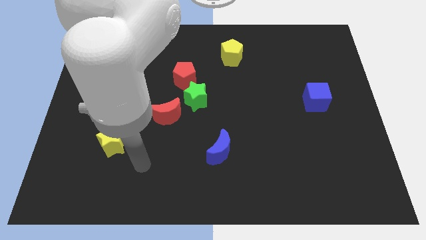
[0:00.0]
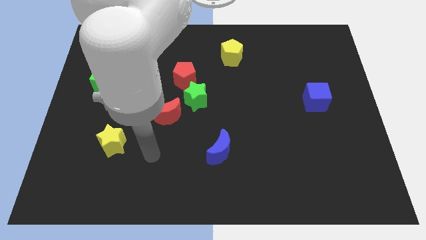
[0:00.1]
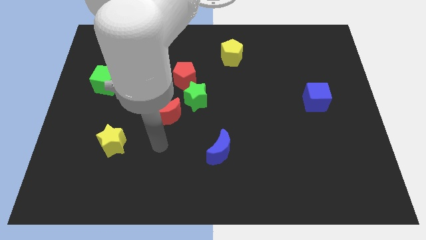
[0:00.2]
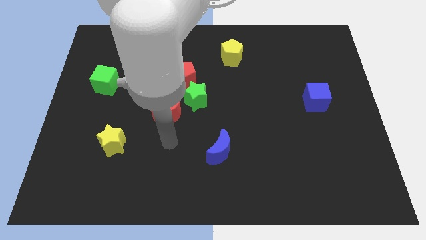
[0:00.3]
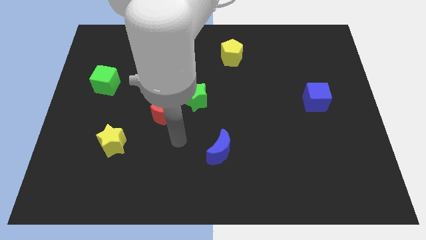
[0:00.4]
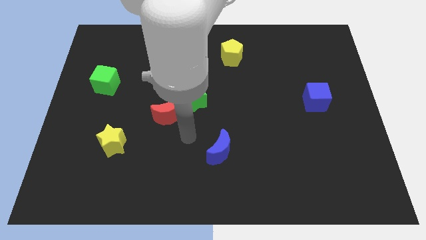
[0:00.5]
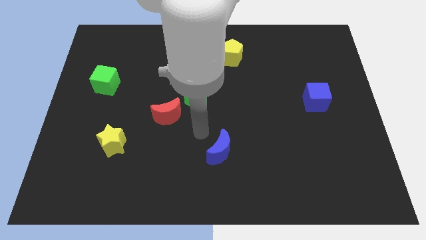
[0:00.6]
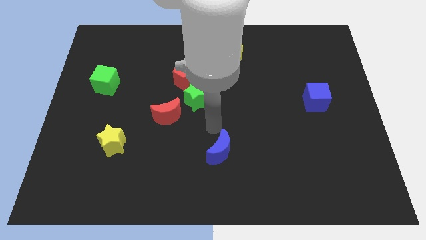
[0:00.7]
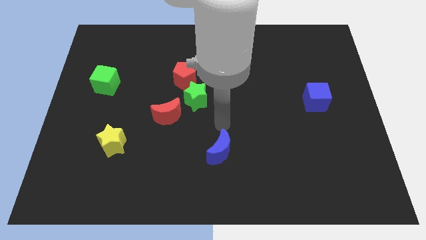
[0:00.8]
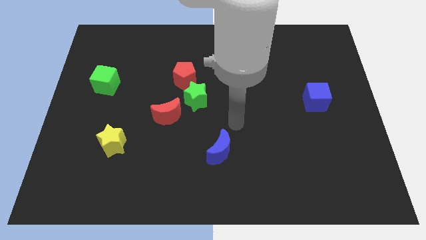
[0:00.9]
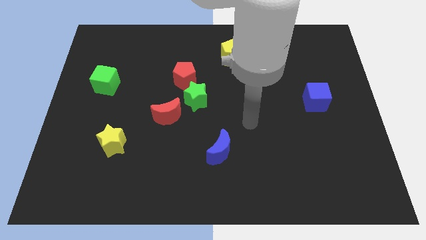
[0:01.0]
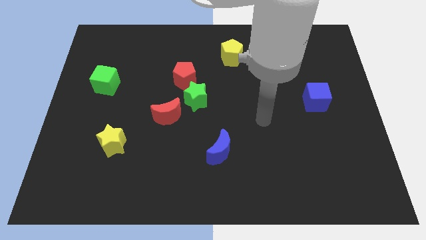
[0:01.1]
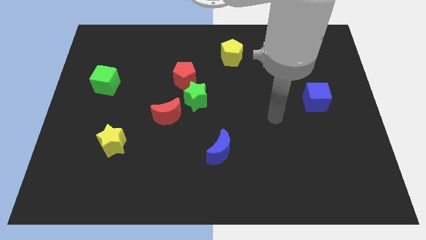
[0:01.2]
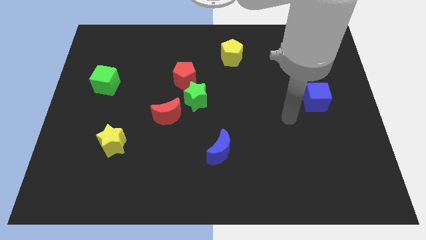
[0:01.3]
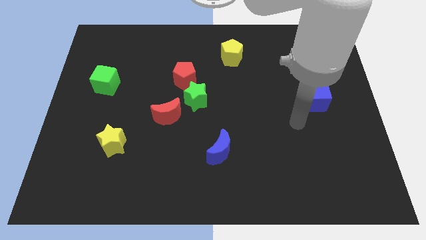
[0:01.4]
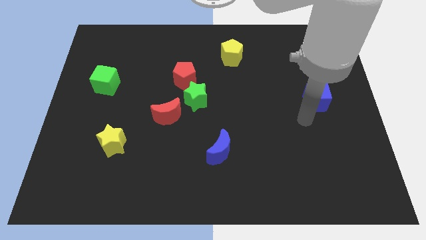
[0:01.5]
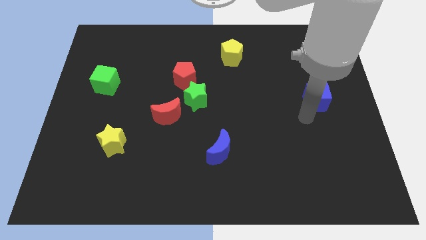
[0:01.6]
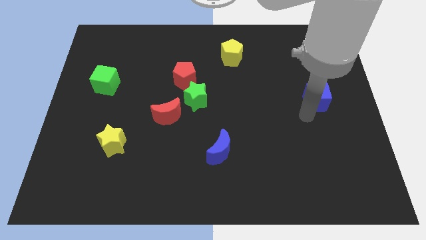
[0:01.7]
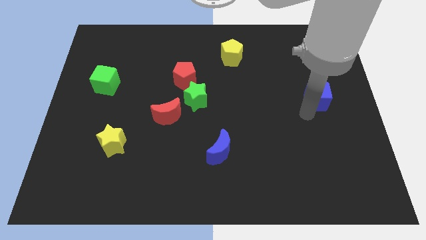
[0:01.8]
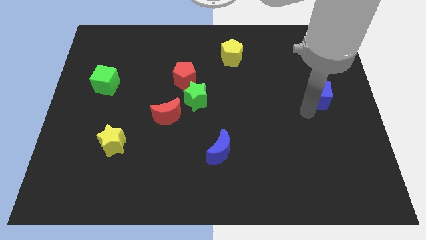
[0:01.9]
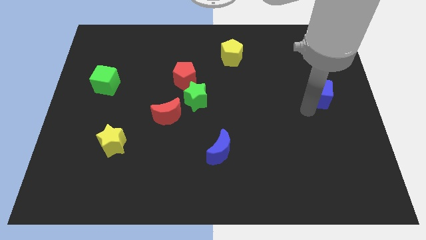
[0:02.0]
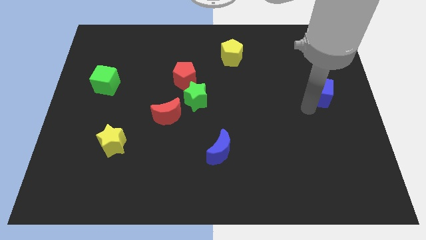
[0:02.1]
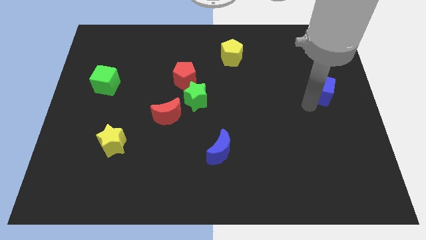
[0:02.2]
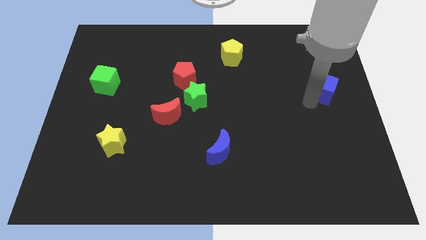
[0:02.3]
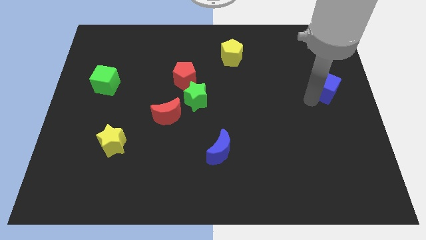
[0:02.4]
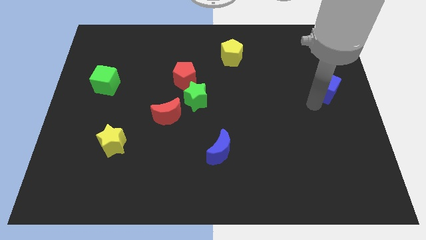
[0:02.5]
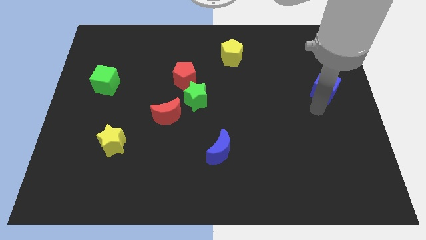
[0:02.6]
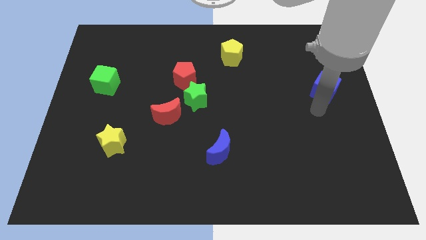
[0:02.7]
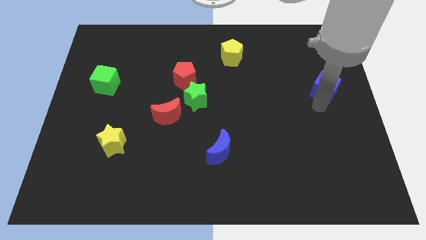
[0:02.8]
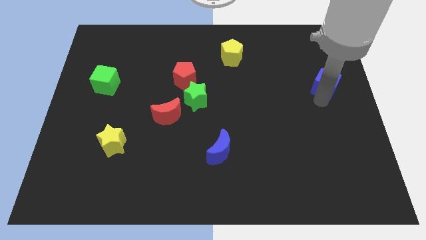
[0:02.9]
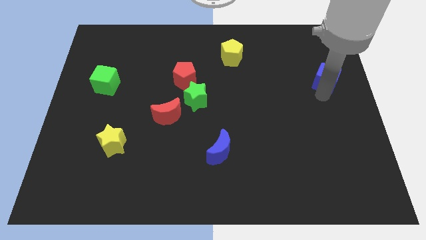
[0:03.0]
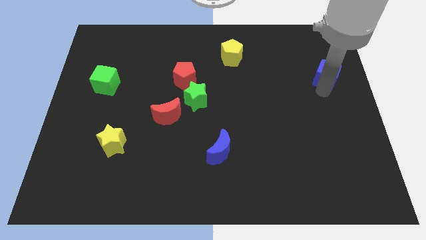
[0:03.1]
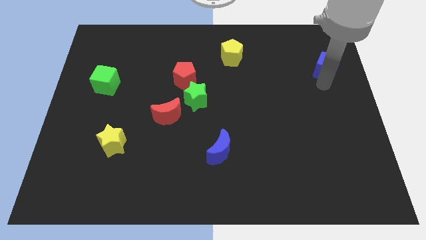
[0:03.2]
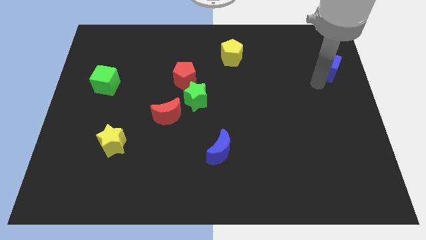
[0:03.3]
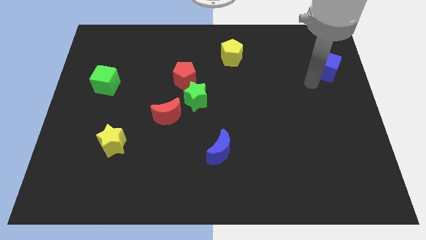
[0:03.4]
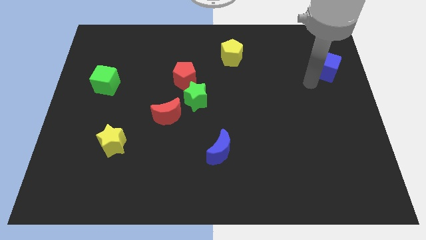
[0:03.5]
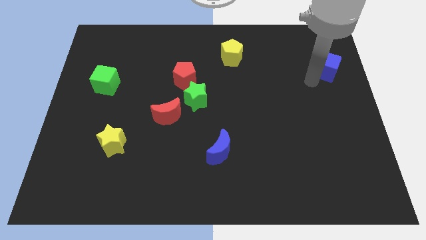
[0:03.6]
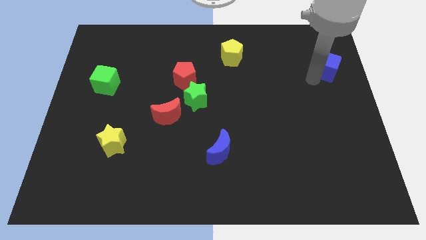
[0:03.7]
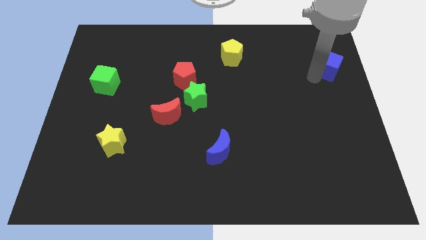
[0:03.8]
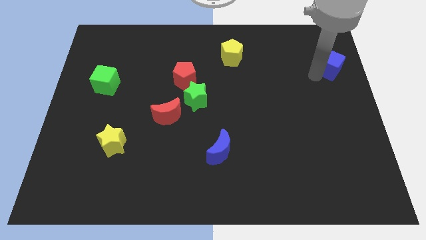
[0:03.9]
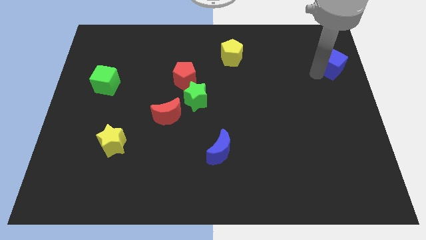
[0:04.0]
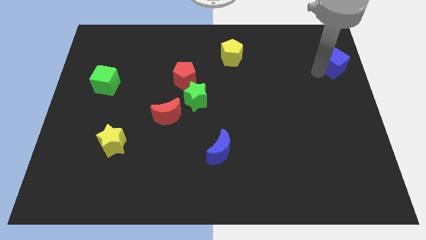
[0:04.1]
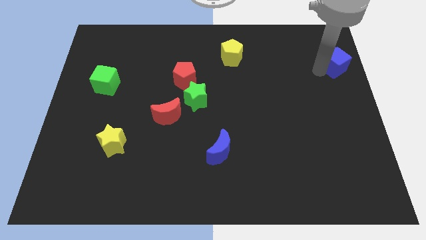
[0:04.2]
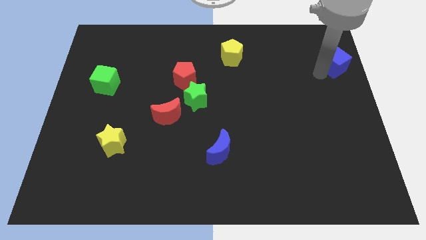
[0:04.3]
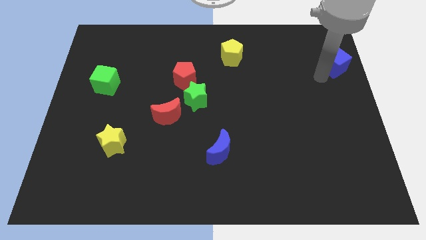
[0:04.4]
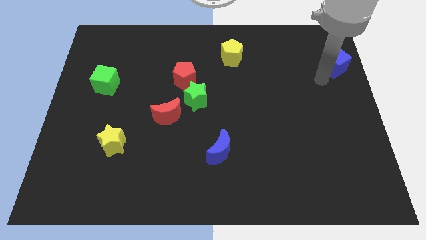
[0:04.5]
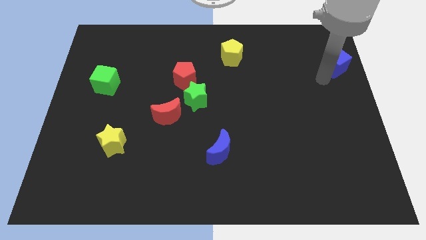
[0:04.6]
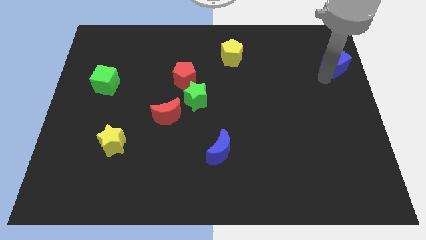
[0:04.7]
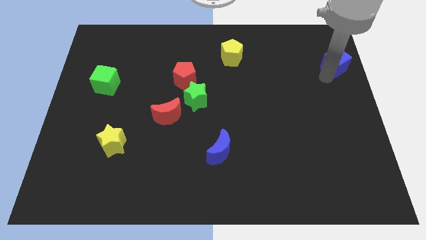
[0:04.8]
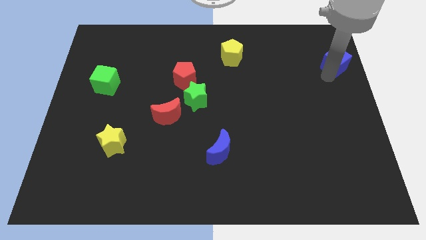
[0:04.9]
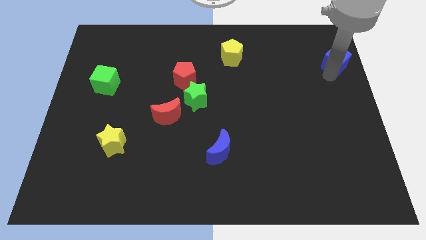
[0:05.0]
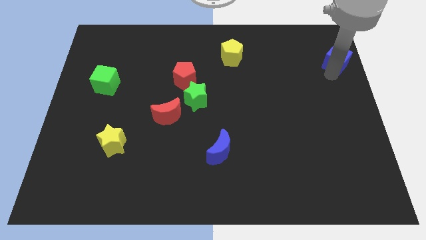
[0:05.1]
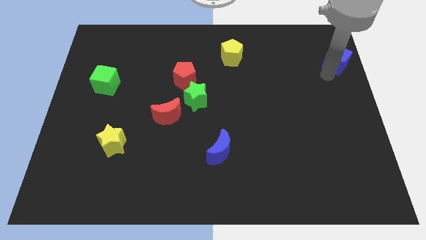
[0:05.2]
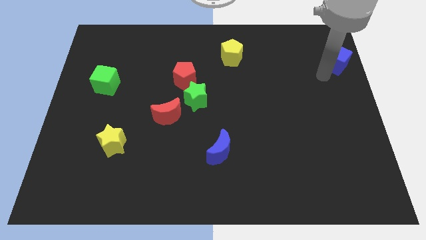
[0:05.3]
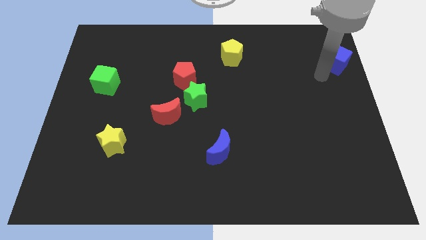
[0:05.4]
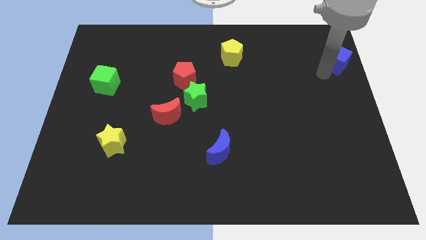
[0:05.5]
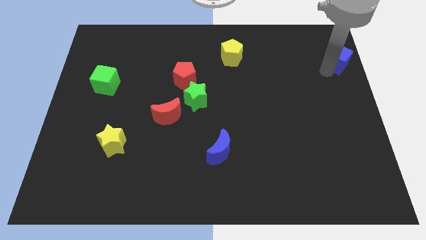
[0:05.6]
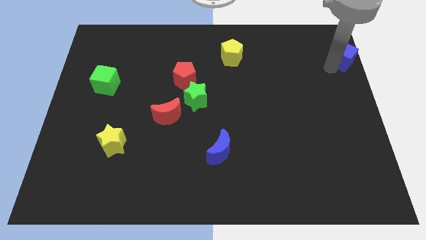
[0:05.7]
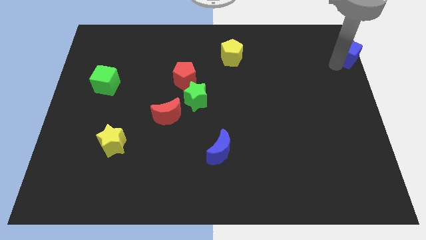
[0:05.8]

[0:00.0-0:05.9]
push the blue cube to the top right corner

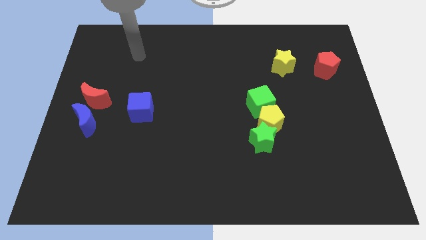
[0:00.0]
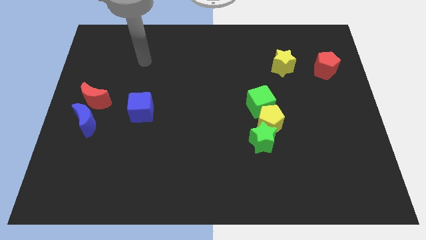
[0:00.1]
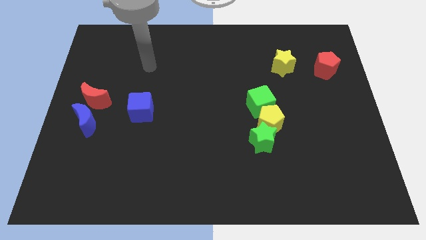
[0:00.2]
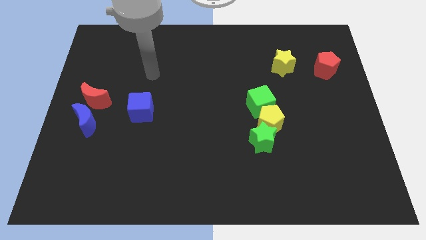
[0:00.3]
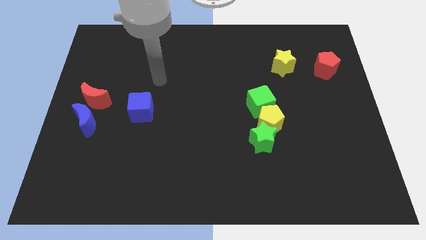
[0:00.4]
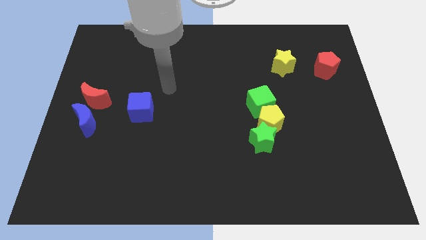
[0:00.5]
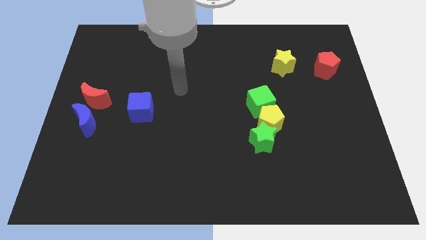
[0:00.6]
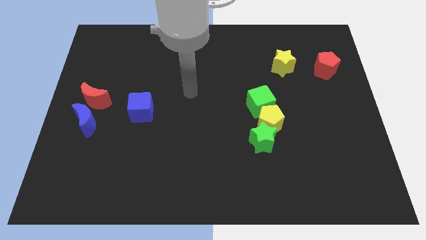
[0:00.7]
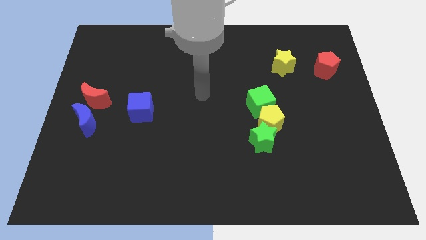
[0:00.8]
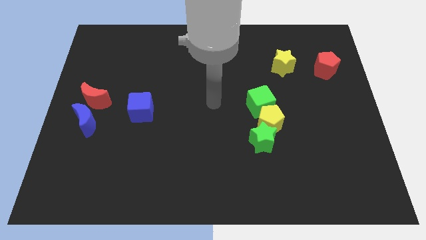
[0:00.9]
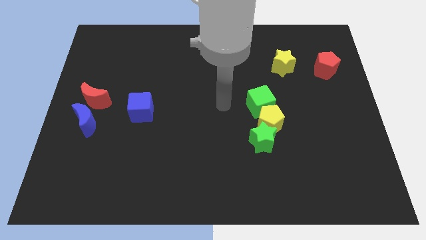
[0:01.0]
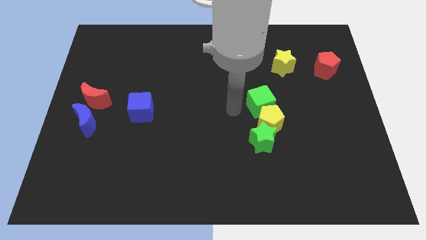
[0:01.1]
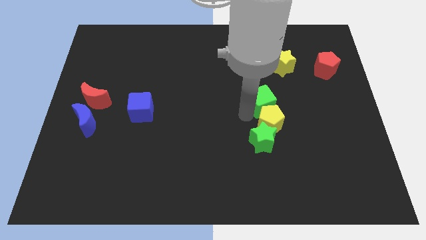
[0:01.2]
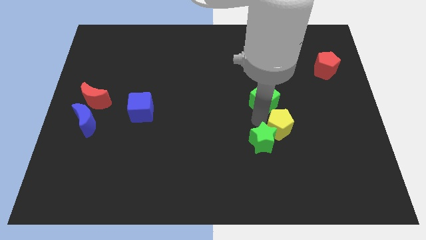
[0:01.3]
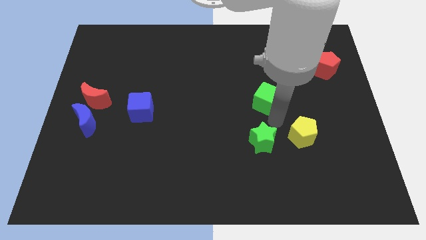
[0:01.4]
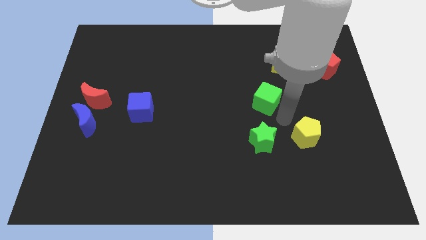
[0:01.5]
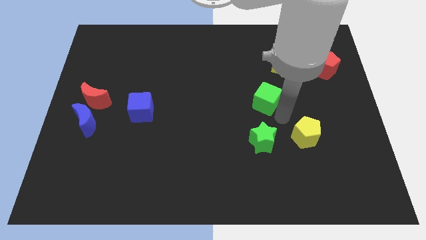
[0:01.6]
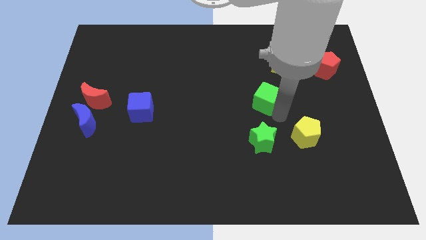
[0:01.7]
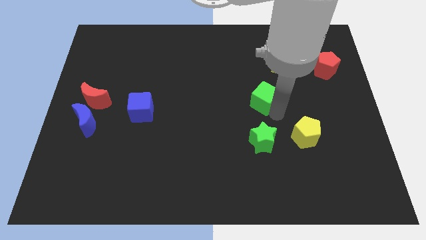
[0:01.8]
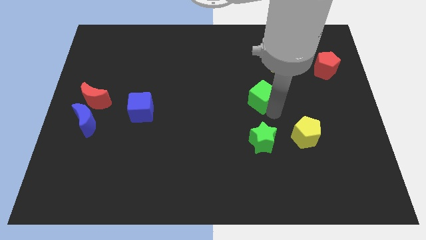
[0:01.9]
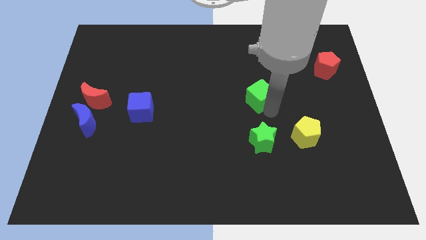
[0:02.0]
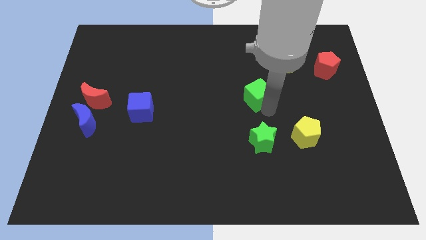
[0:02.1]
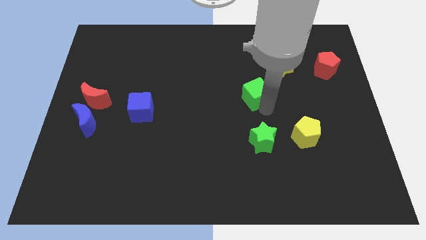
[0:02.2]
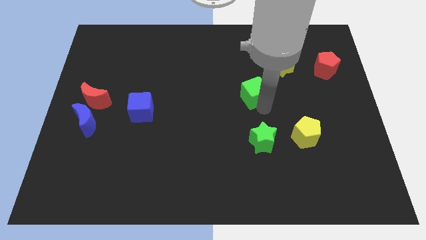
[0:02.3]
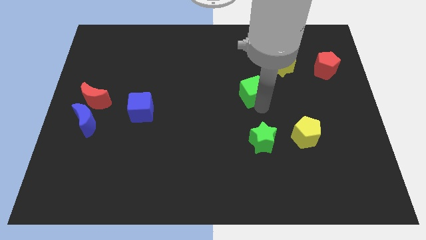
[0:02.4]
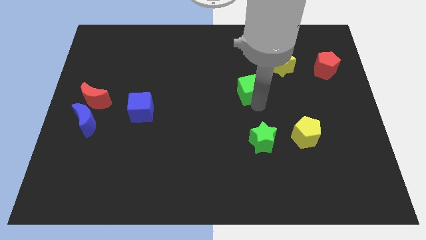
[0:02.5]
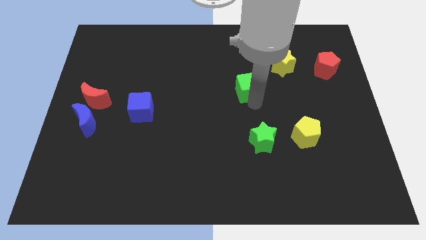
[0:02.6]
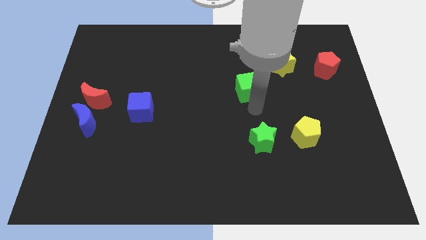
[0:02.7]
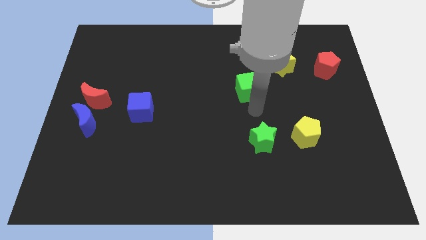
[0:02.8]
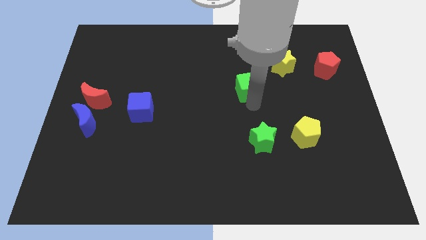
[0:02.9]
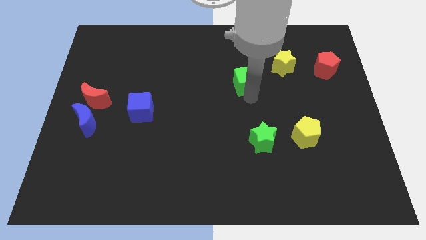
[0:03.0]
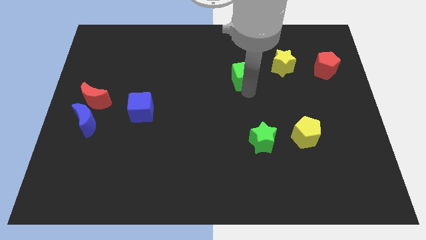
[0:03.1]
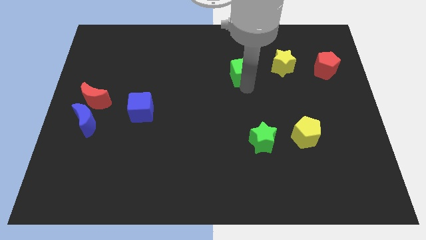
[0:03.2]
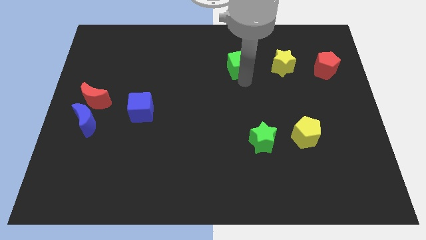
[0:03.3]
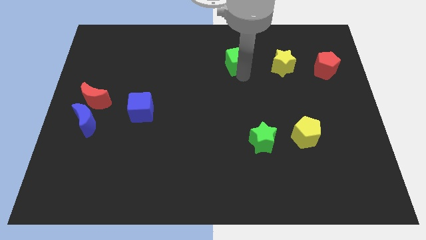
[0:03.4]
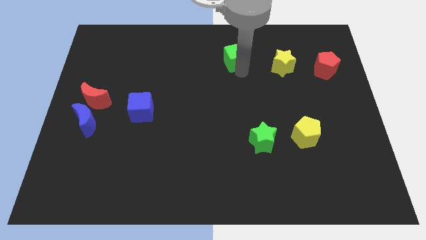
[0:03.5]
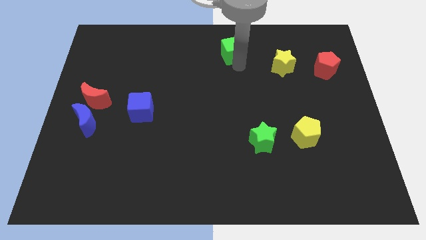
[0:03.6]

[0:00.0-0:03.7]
move the green cube to the top side
